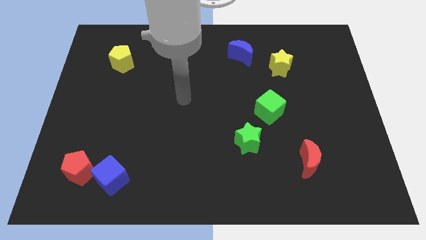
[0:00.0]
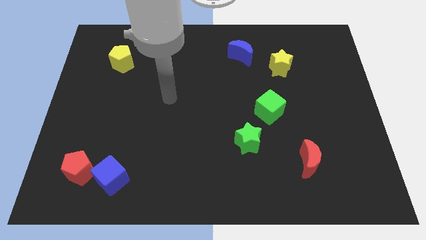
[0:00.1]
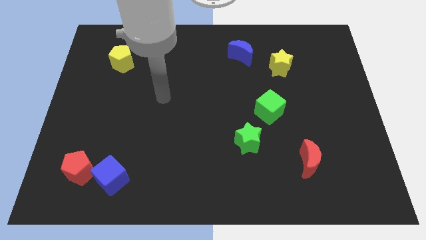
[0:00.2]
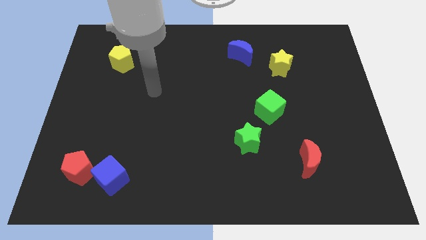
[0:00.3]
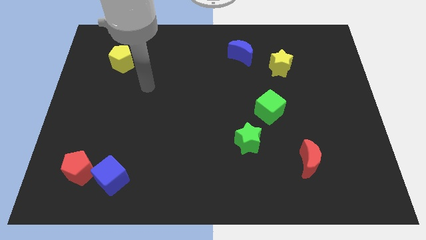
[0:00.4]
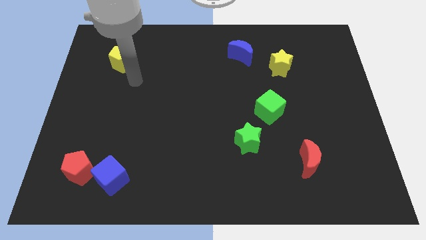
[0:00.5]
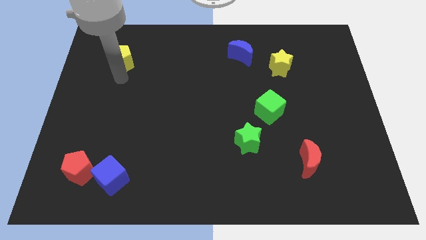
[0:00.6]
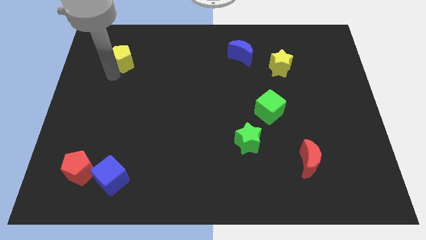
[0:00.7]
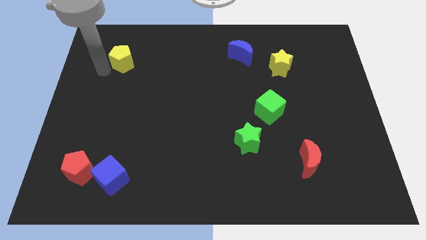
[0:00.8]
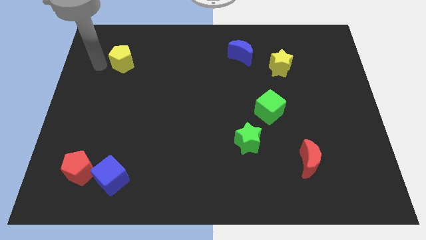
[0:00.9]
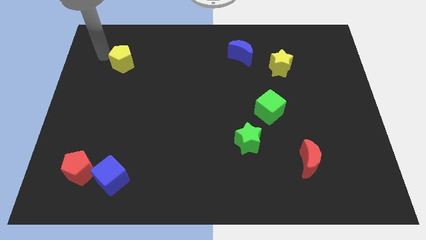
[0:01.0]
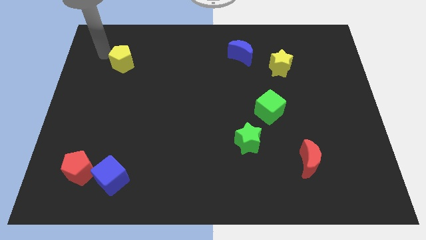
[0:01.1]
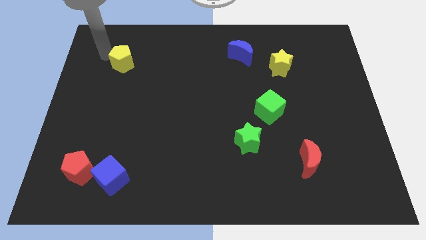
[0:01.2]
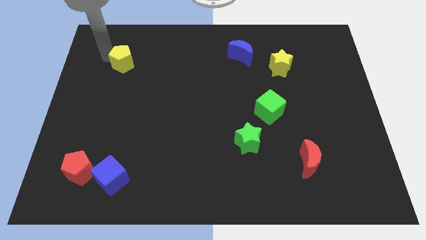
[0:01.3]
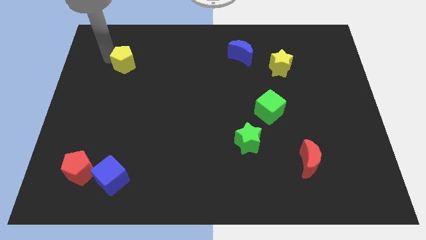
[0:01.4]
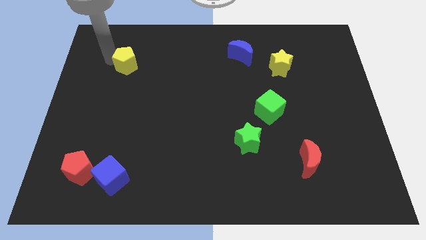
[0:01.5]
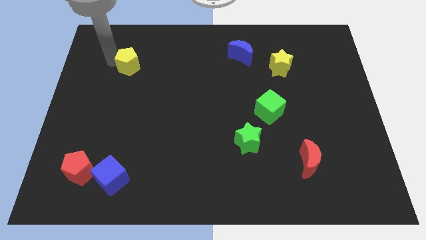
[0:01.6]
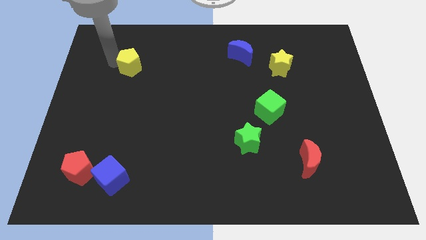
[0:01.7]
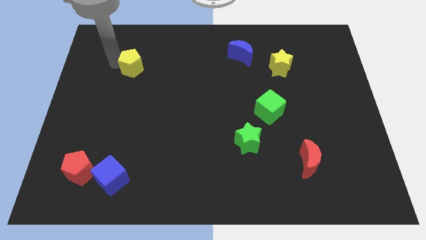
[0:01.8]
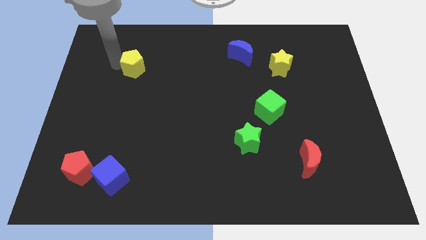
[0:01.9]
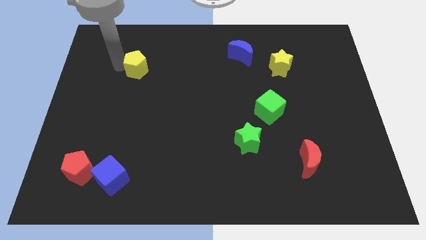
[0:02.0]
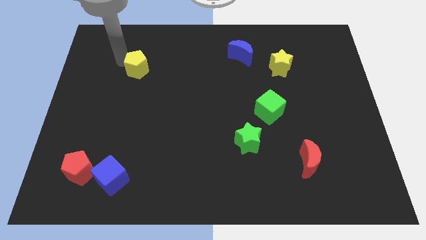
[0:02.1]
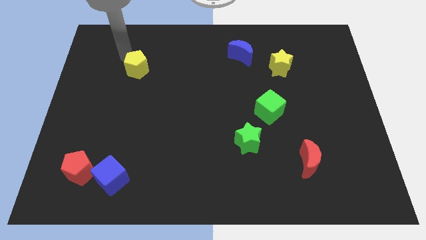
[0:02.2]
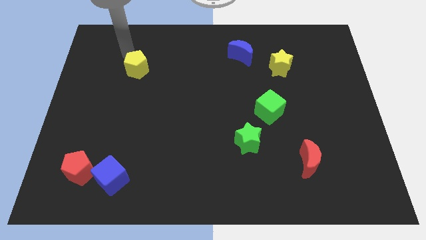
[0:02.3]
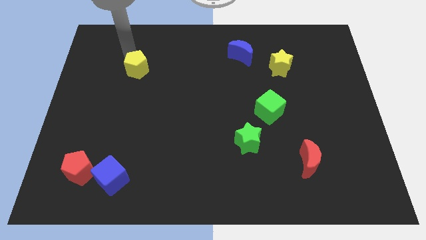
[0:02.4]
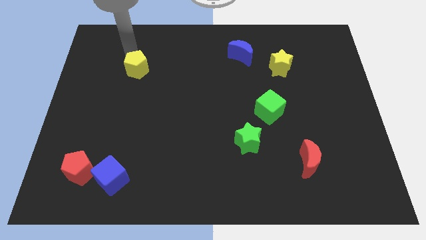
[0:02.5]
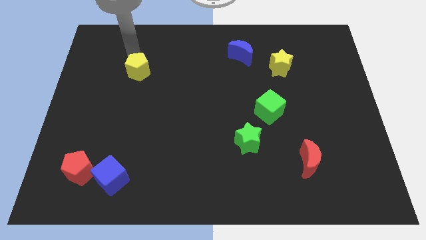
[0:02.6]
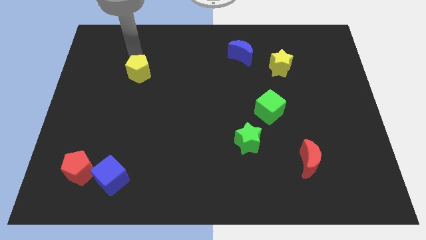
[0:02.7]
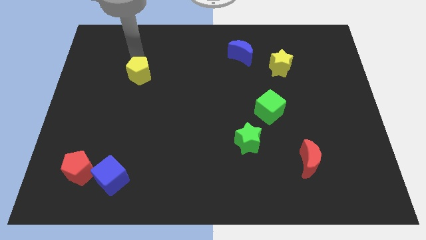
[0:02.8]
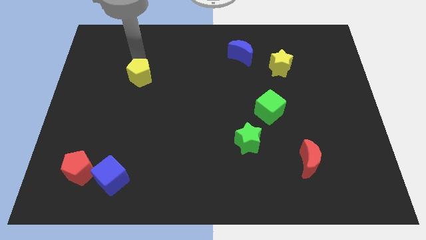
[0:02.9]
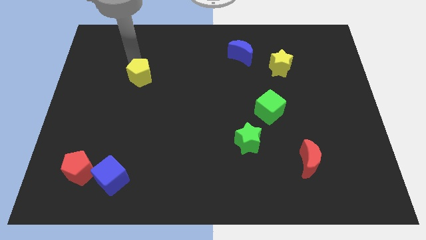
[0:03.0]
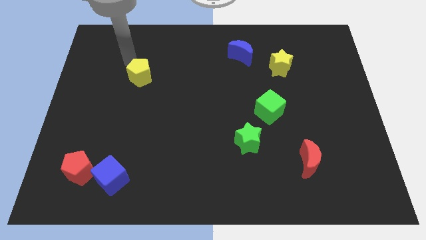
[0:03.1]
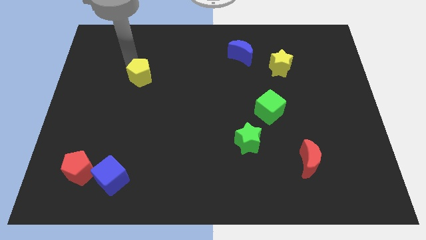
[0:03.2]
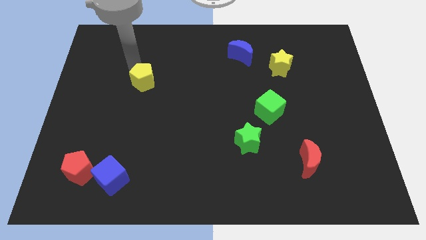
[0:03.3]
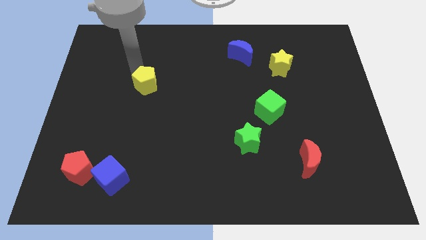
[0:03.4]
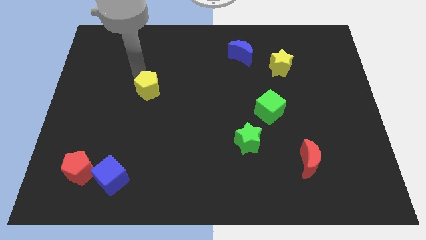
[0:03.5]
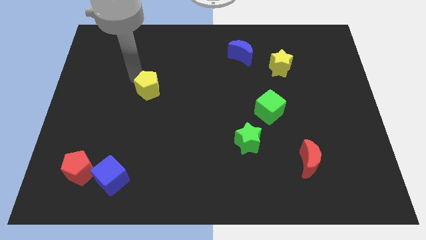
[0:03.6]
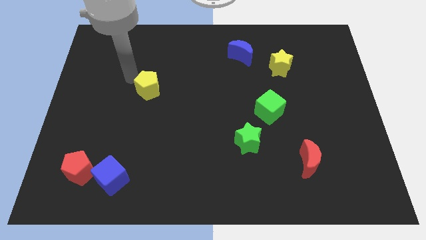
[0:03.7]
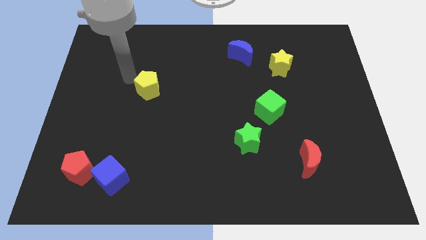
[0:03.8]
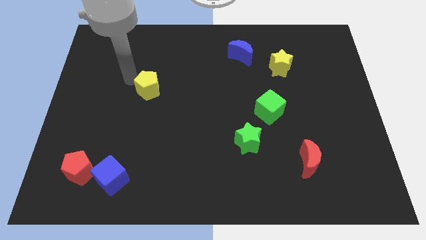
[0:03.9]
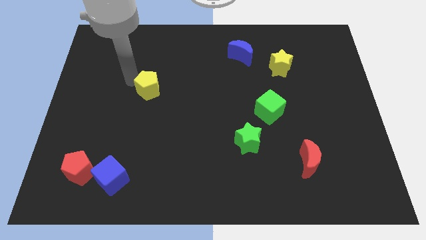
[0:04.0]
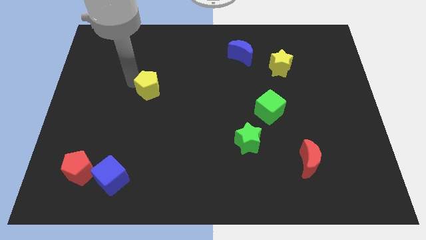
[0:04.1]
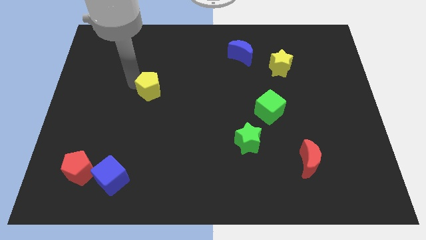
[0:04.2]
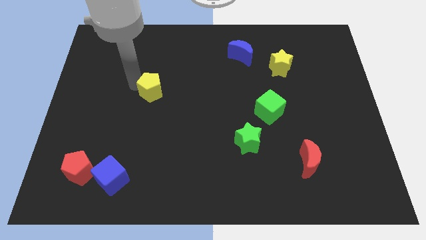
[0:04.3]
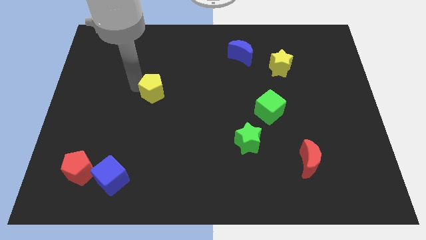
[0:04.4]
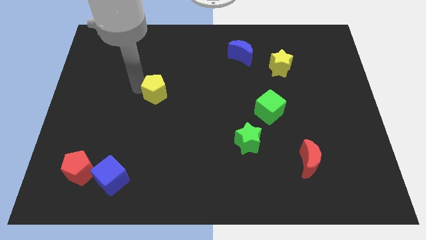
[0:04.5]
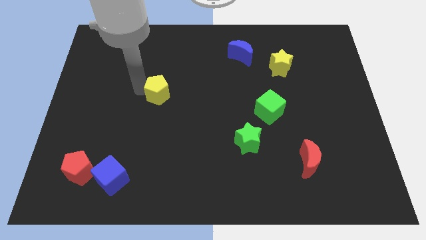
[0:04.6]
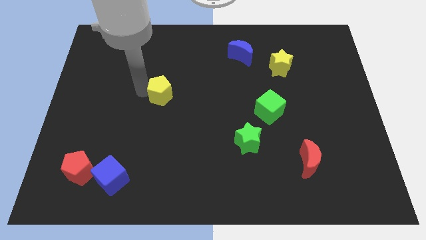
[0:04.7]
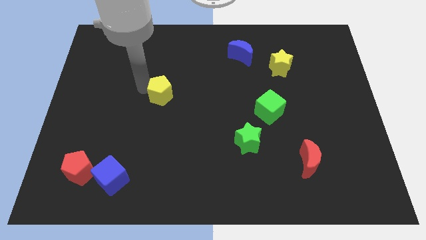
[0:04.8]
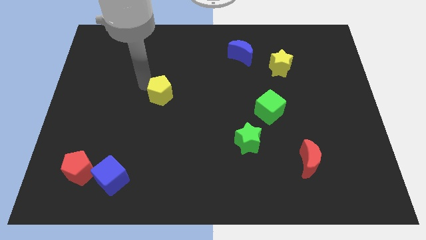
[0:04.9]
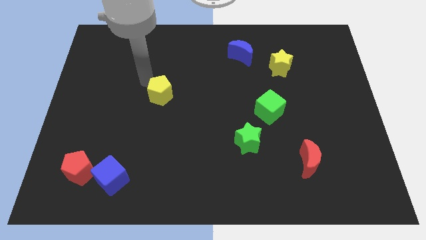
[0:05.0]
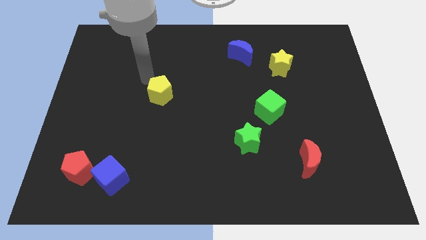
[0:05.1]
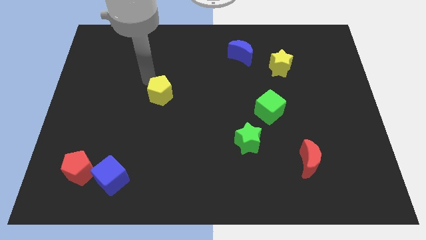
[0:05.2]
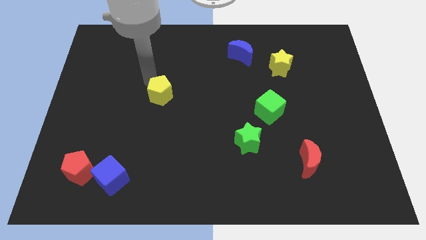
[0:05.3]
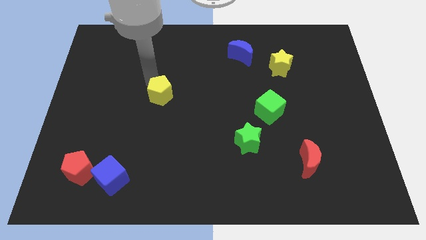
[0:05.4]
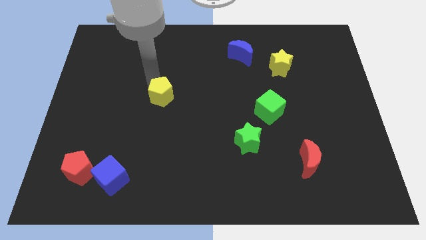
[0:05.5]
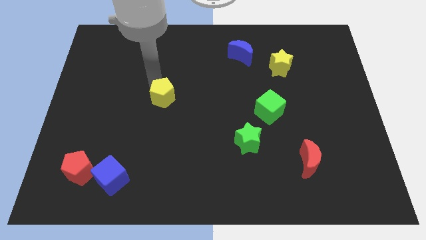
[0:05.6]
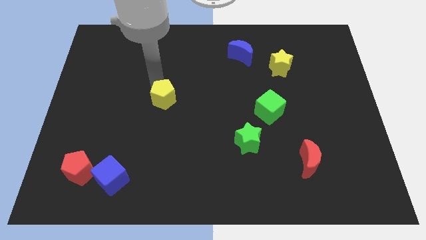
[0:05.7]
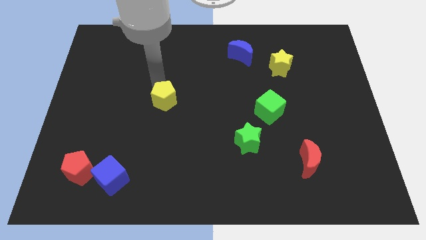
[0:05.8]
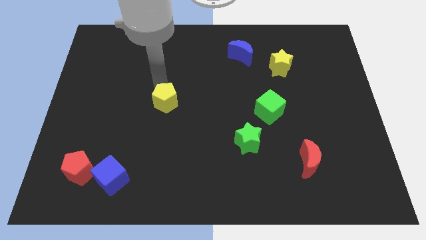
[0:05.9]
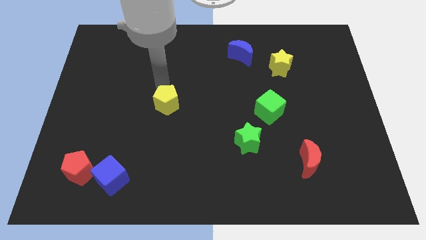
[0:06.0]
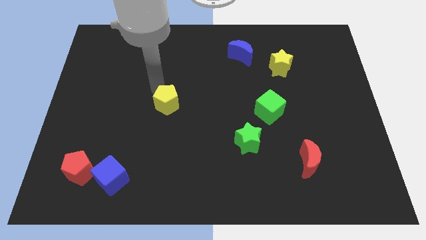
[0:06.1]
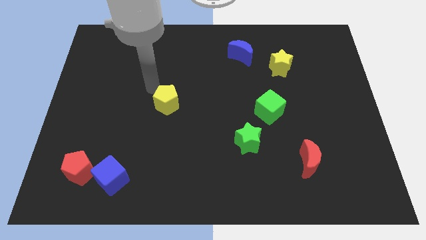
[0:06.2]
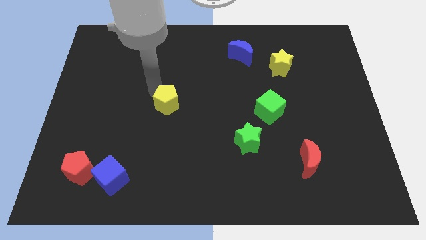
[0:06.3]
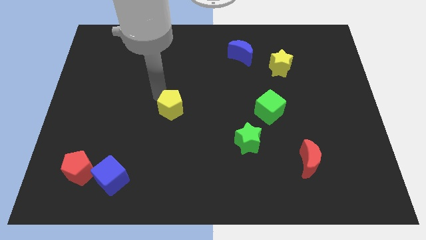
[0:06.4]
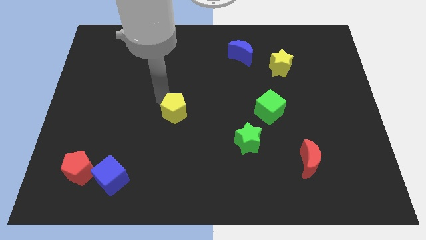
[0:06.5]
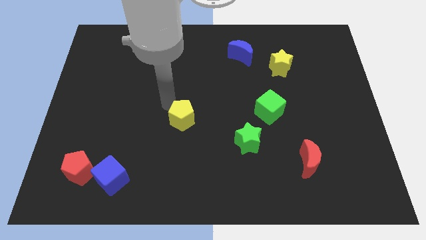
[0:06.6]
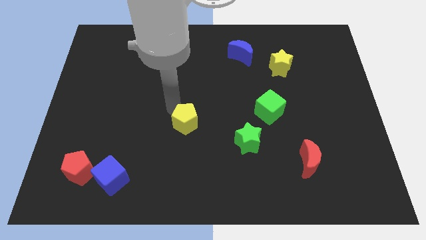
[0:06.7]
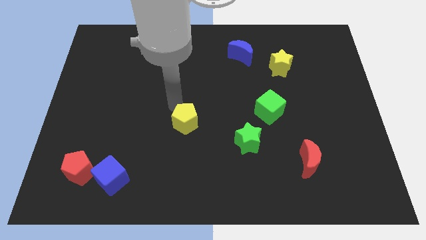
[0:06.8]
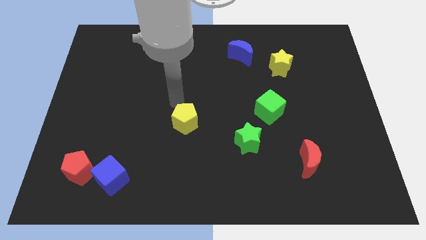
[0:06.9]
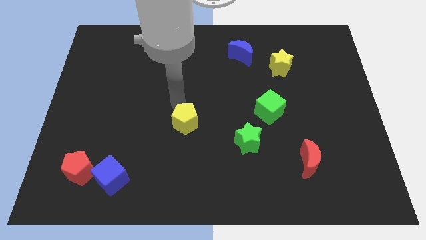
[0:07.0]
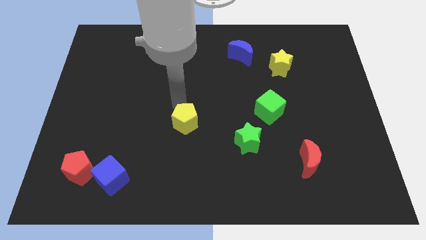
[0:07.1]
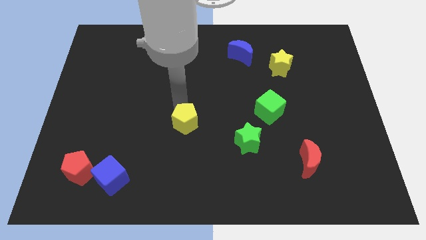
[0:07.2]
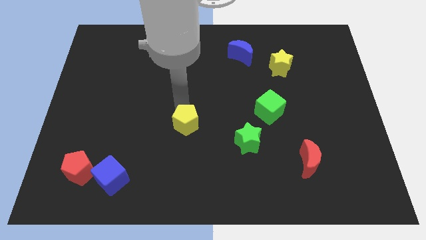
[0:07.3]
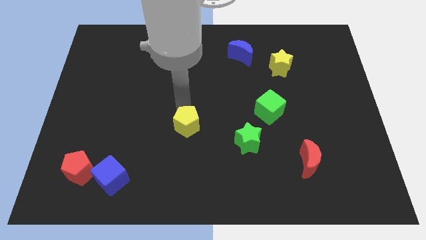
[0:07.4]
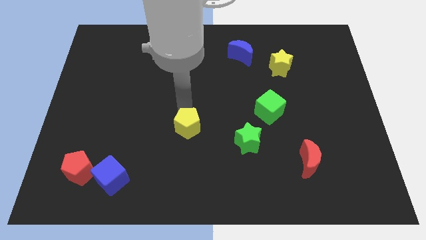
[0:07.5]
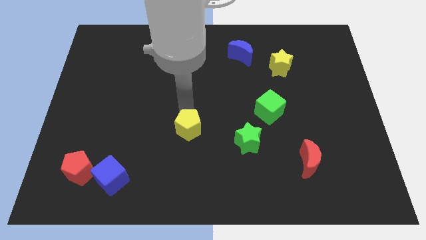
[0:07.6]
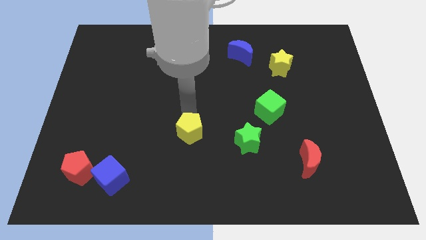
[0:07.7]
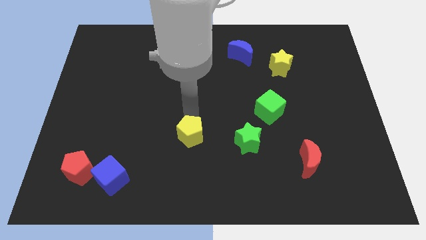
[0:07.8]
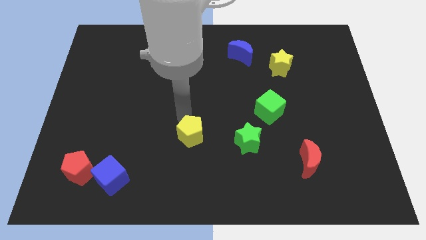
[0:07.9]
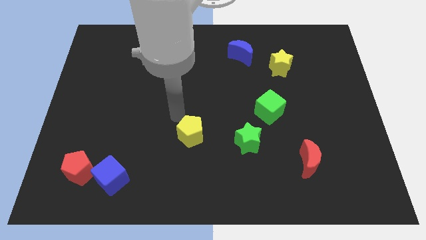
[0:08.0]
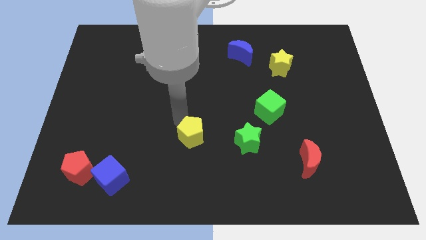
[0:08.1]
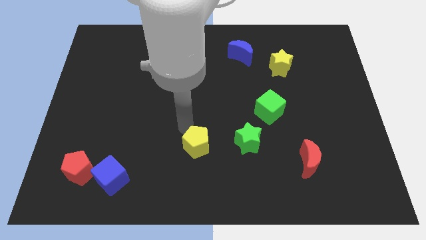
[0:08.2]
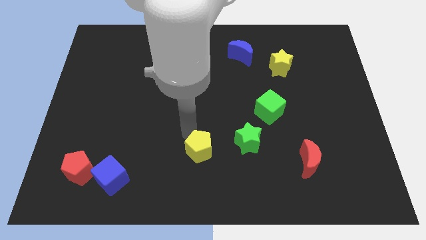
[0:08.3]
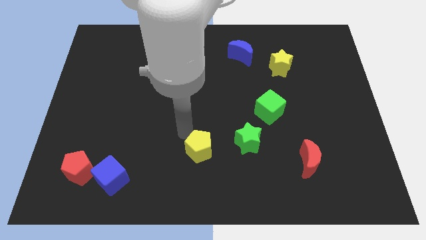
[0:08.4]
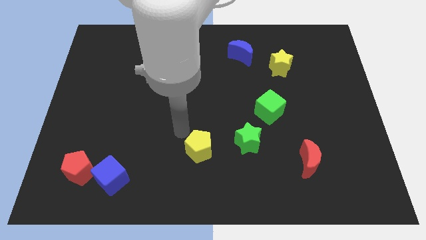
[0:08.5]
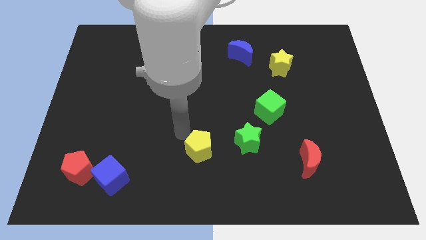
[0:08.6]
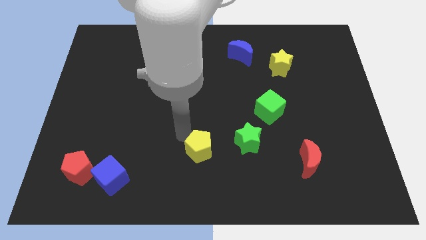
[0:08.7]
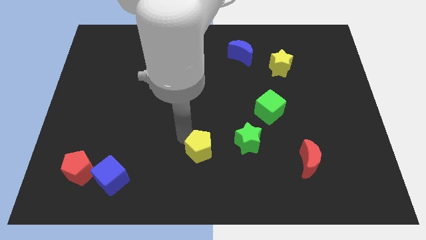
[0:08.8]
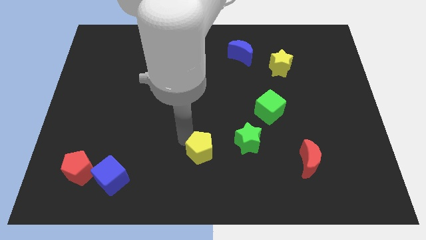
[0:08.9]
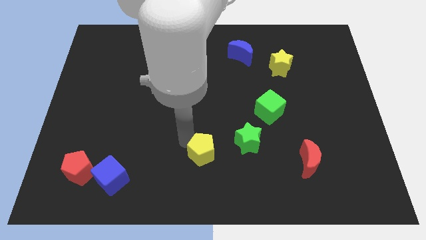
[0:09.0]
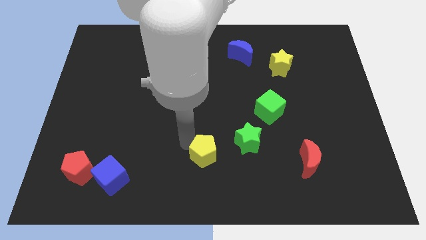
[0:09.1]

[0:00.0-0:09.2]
put the yellow pentagon to the bottom side
